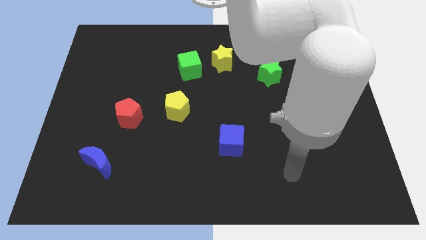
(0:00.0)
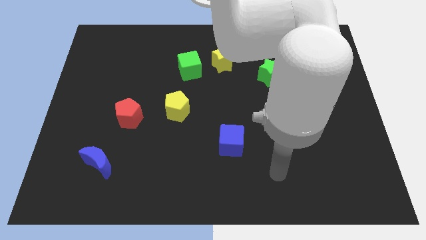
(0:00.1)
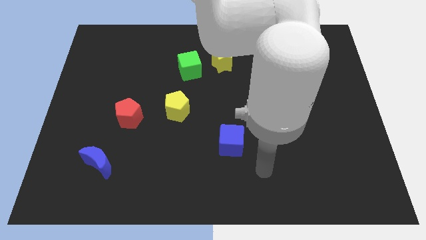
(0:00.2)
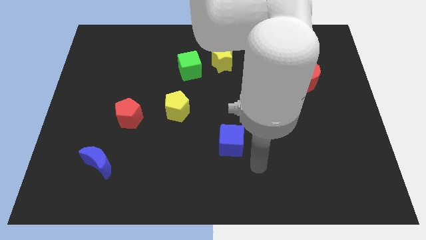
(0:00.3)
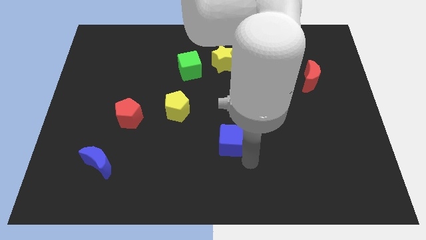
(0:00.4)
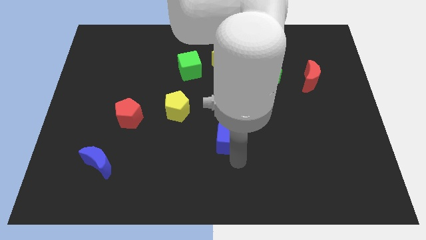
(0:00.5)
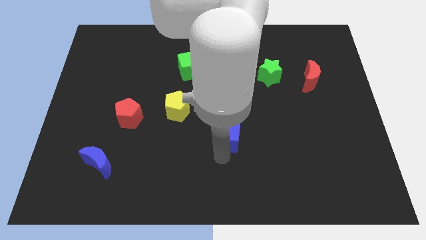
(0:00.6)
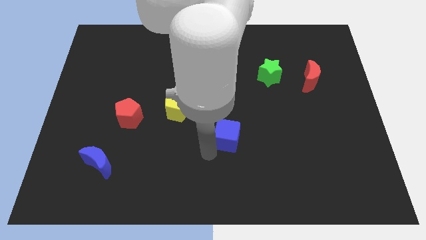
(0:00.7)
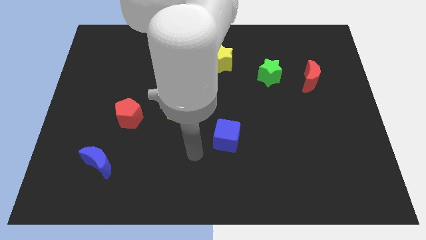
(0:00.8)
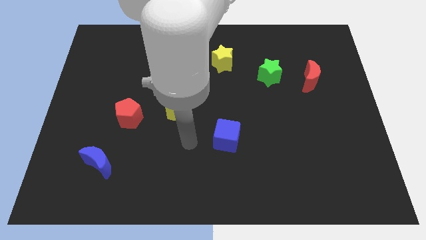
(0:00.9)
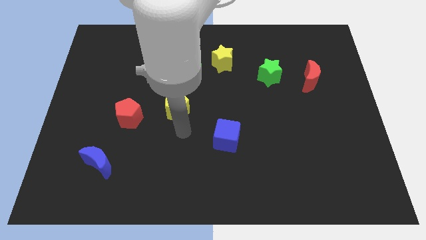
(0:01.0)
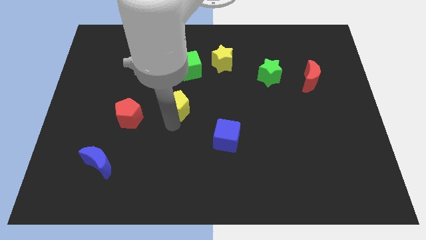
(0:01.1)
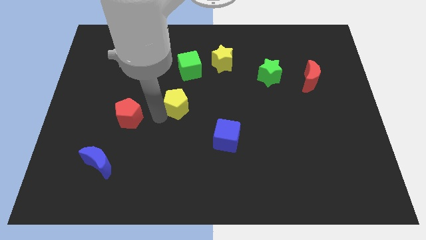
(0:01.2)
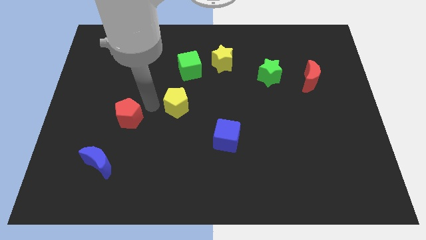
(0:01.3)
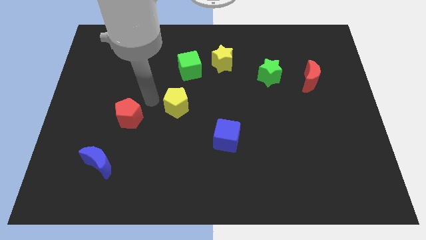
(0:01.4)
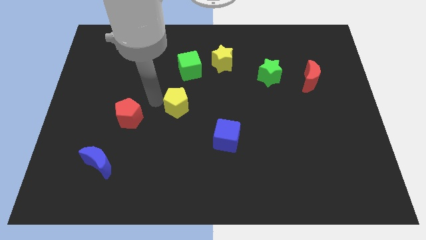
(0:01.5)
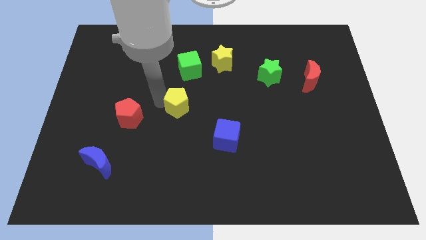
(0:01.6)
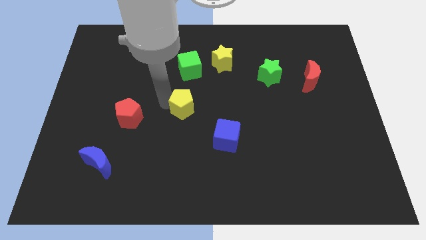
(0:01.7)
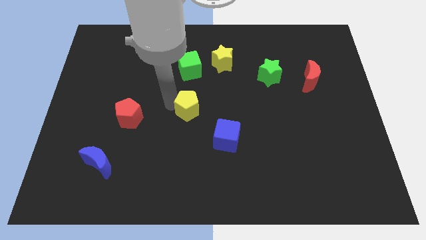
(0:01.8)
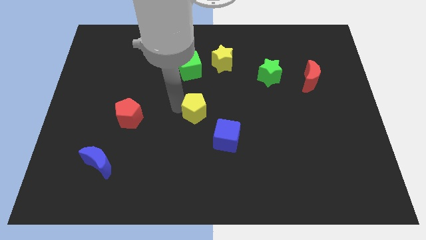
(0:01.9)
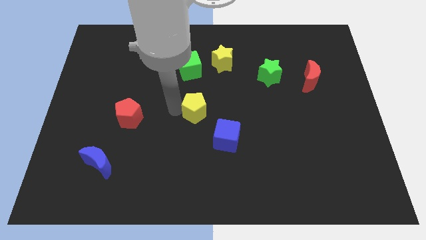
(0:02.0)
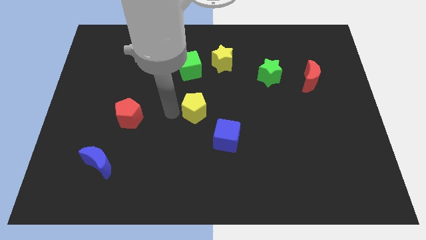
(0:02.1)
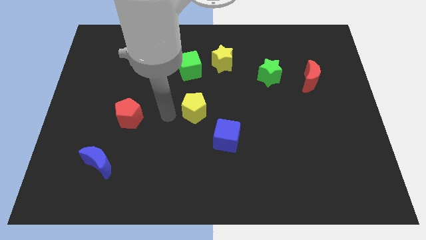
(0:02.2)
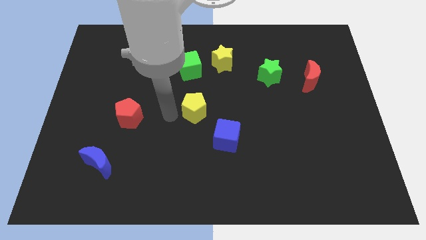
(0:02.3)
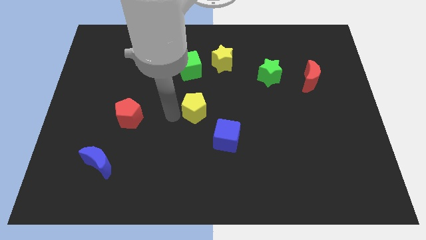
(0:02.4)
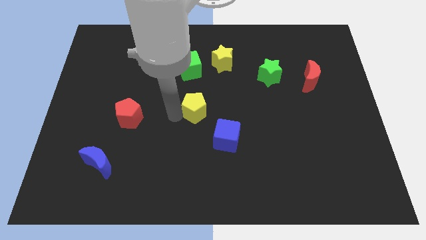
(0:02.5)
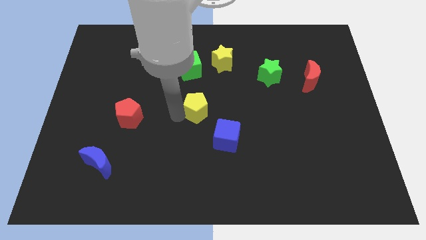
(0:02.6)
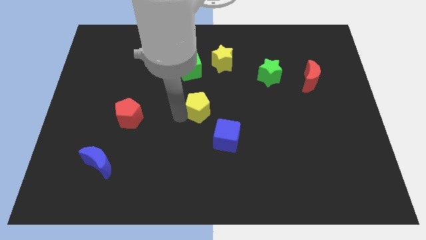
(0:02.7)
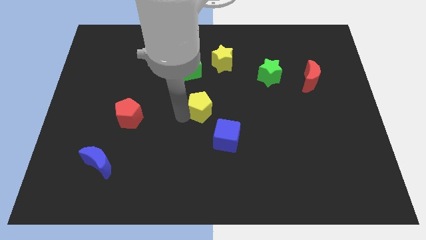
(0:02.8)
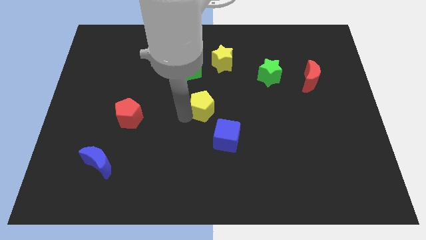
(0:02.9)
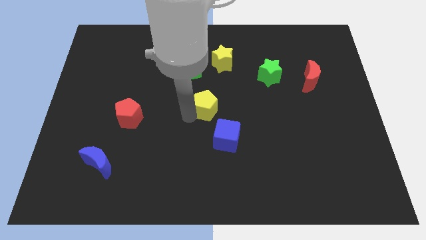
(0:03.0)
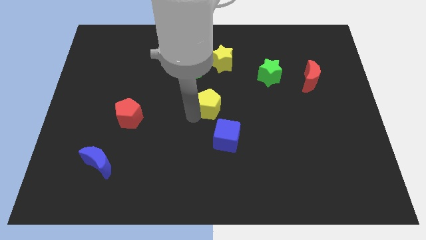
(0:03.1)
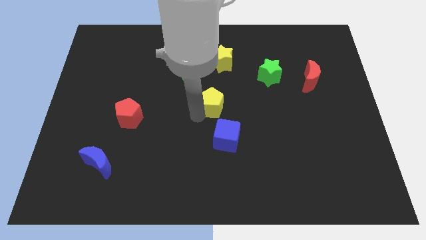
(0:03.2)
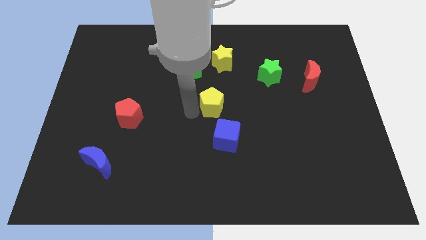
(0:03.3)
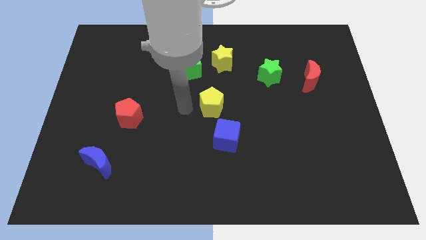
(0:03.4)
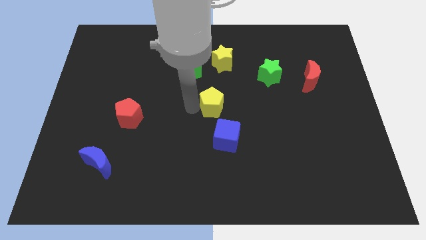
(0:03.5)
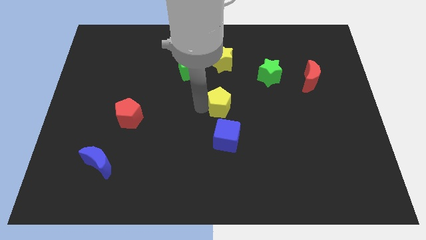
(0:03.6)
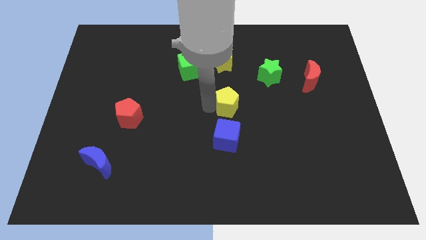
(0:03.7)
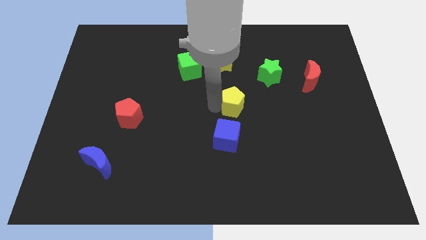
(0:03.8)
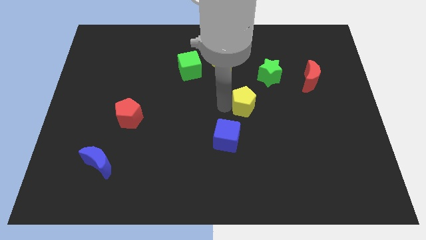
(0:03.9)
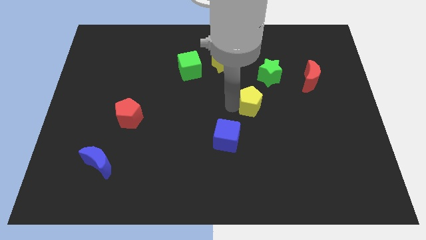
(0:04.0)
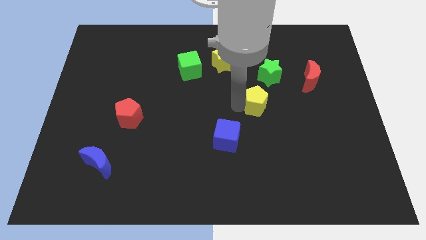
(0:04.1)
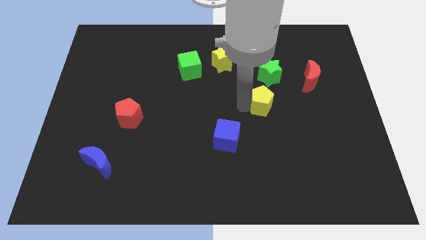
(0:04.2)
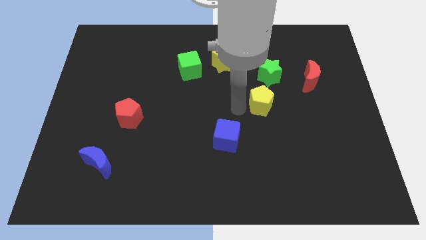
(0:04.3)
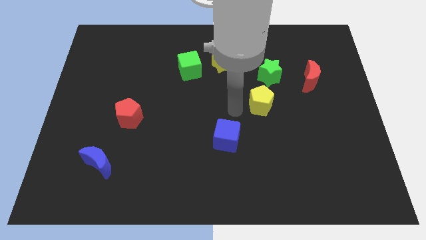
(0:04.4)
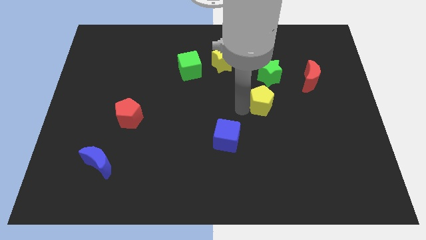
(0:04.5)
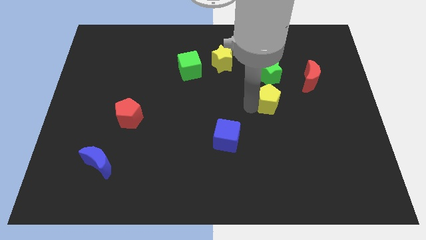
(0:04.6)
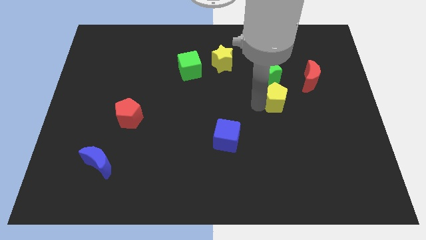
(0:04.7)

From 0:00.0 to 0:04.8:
put the yellow pentagon diagonally down and to the left of the red moon

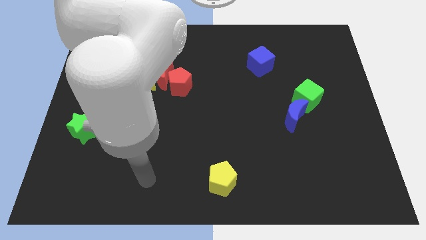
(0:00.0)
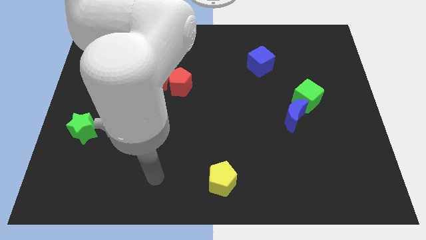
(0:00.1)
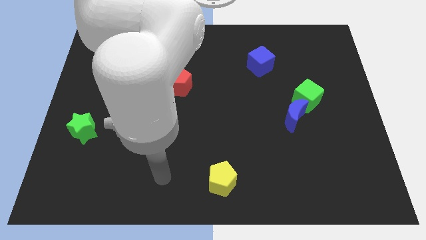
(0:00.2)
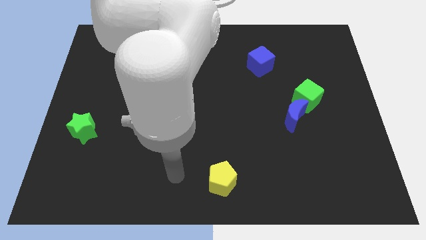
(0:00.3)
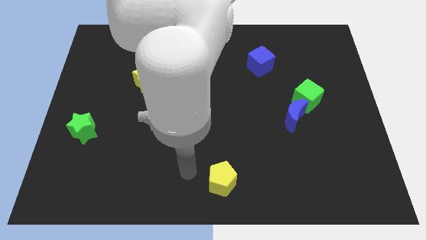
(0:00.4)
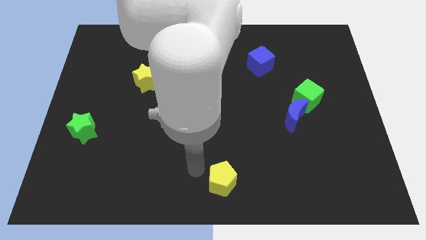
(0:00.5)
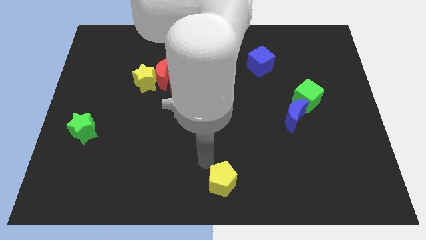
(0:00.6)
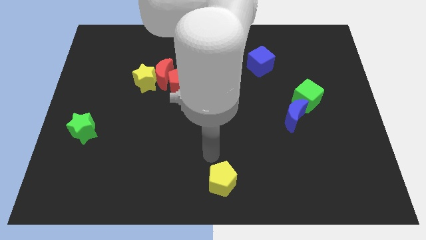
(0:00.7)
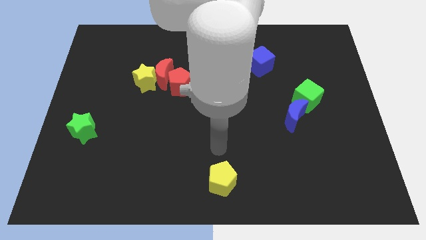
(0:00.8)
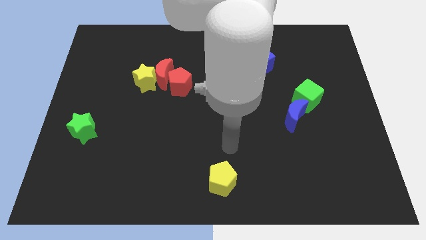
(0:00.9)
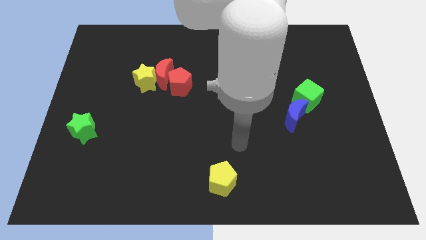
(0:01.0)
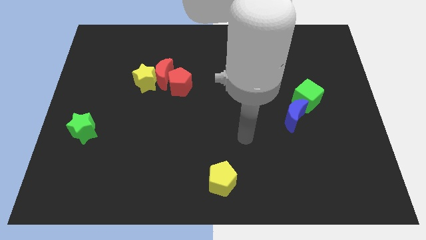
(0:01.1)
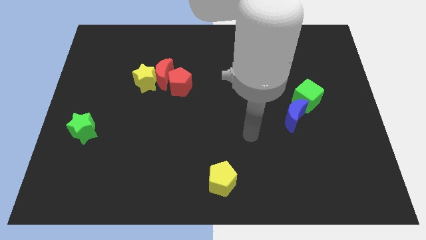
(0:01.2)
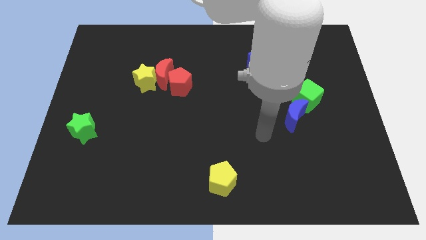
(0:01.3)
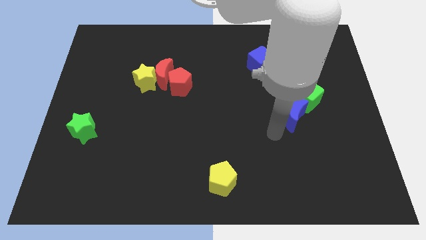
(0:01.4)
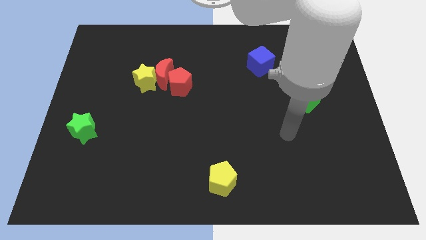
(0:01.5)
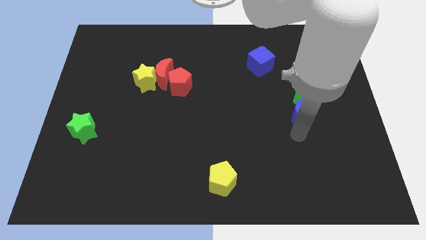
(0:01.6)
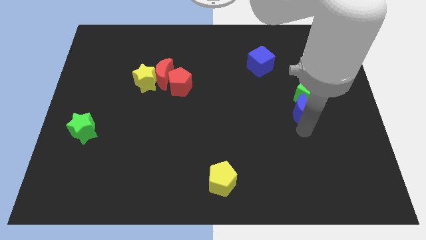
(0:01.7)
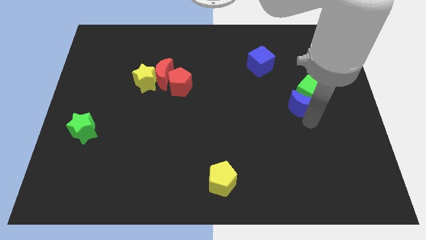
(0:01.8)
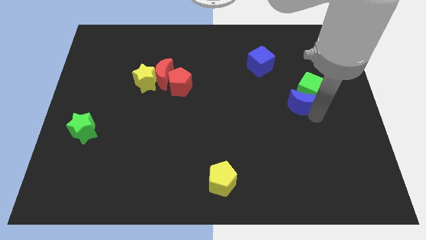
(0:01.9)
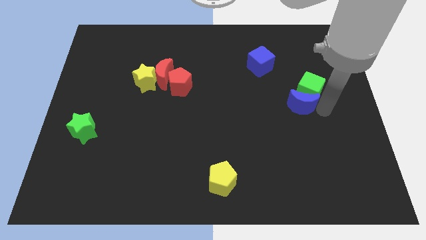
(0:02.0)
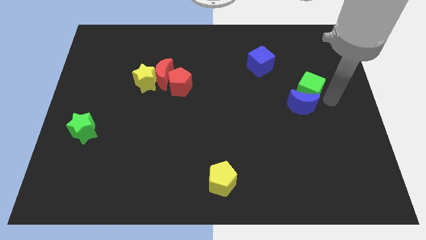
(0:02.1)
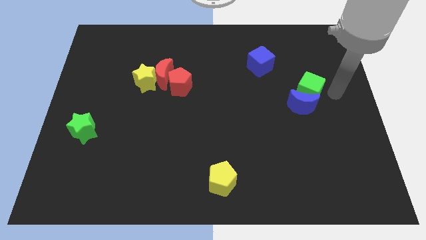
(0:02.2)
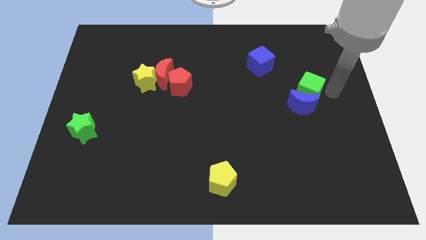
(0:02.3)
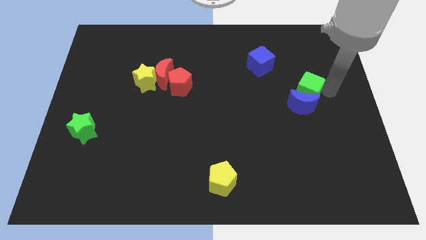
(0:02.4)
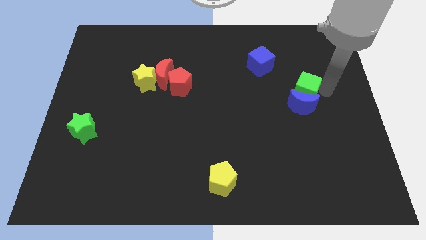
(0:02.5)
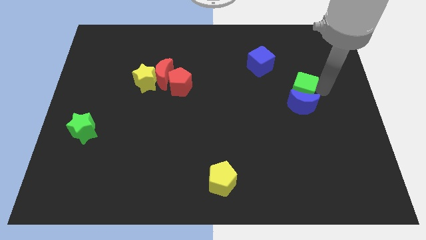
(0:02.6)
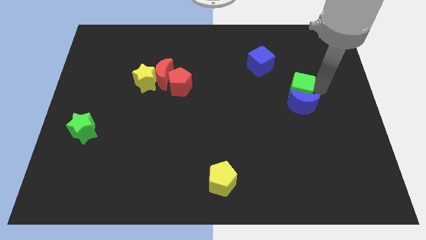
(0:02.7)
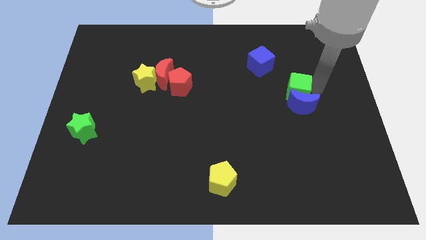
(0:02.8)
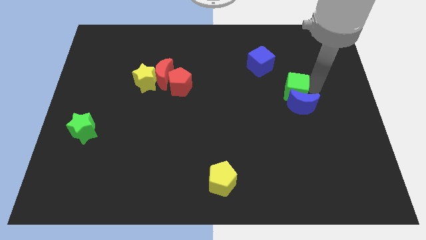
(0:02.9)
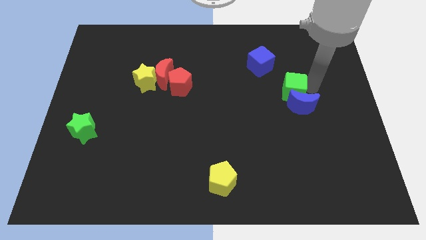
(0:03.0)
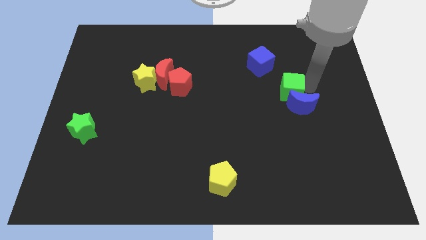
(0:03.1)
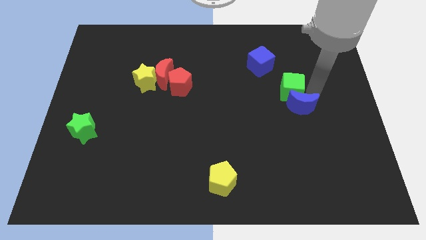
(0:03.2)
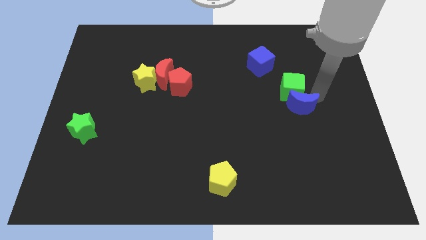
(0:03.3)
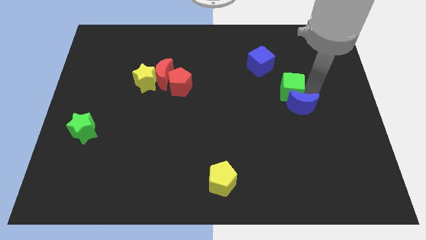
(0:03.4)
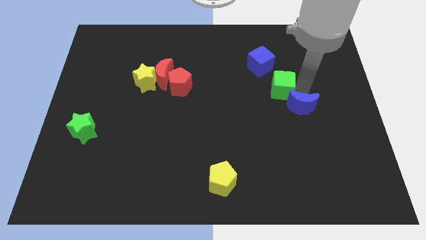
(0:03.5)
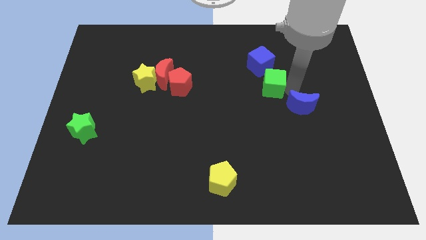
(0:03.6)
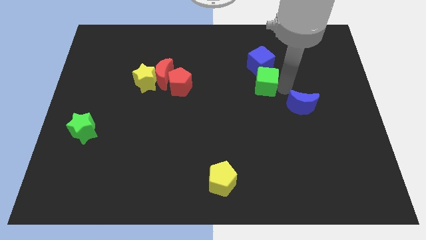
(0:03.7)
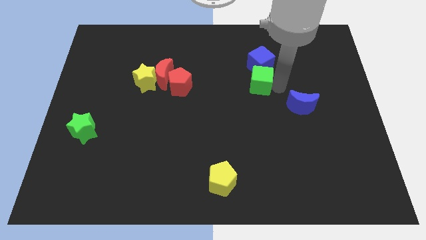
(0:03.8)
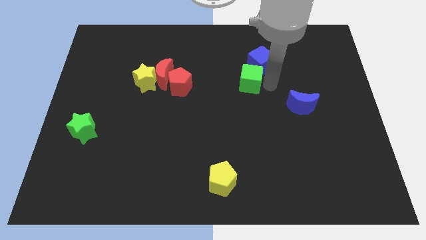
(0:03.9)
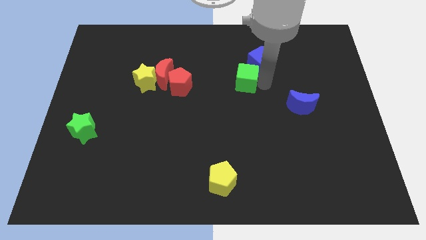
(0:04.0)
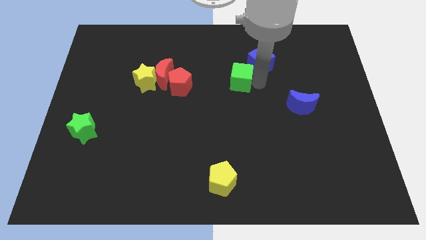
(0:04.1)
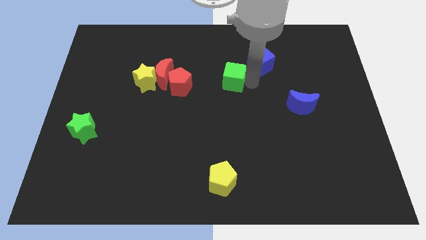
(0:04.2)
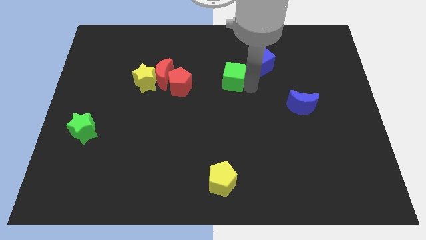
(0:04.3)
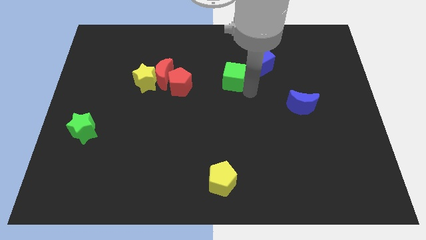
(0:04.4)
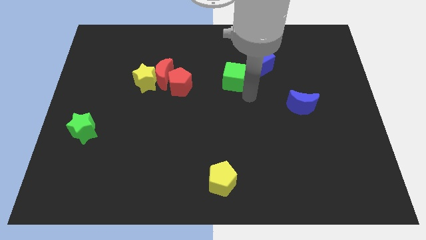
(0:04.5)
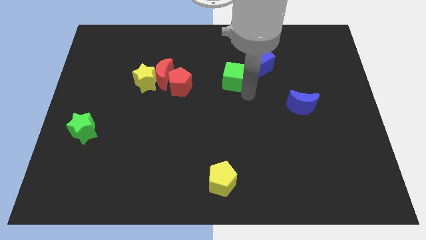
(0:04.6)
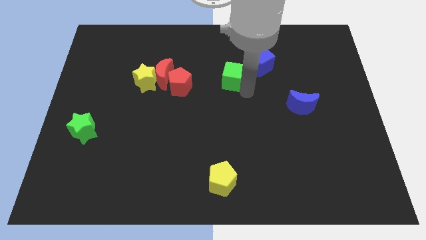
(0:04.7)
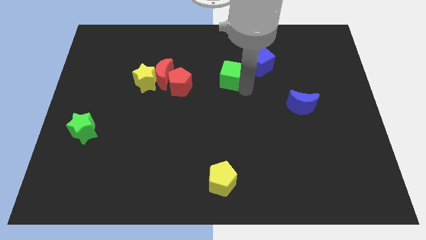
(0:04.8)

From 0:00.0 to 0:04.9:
push the green cube just left of the blue cube
